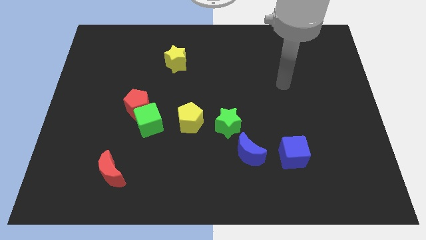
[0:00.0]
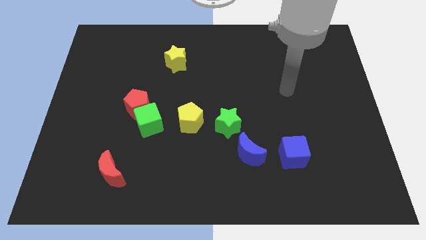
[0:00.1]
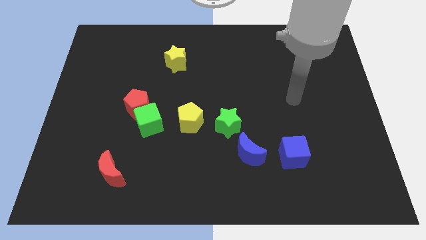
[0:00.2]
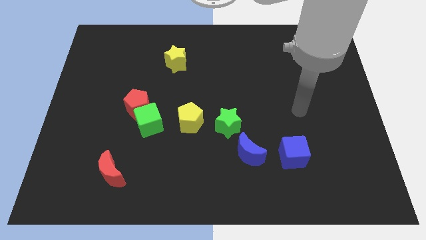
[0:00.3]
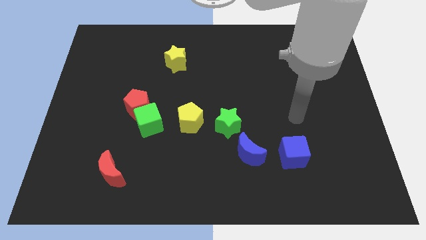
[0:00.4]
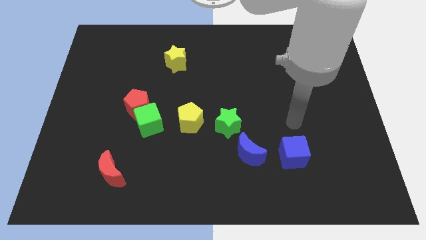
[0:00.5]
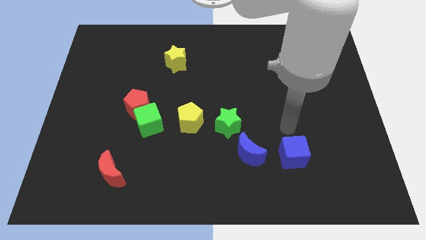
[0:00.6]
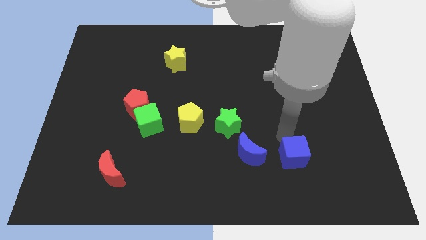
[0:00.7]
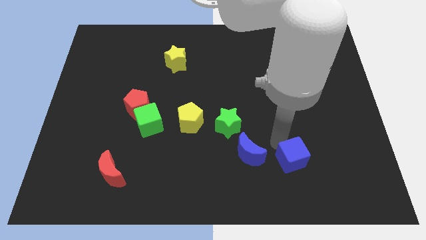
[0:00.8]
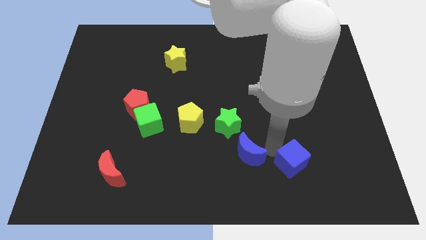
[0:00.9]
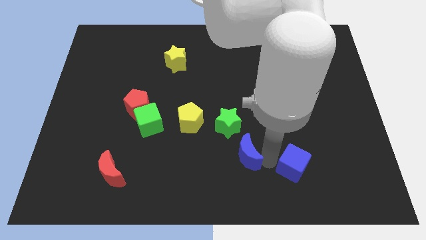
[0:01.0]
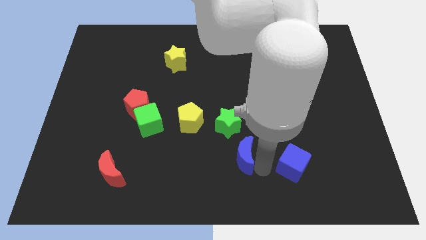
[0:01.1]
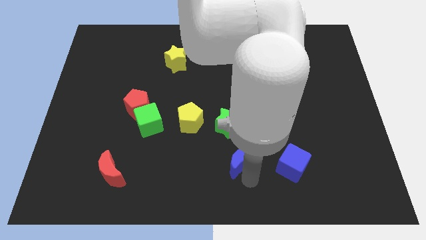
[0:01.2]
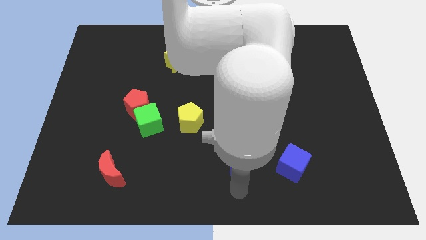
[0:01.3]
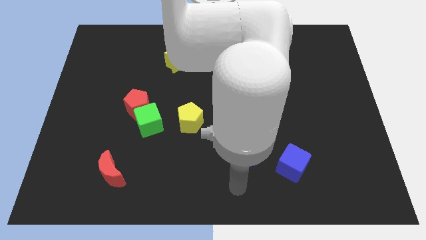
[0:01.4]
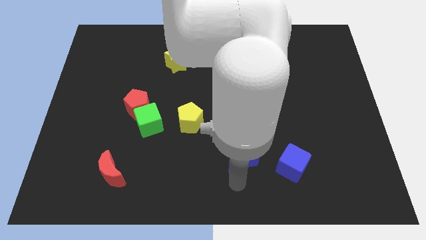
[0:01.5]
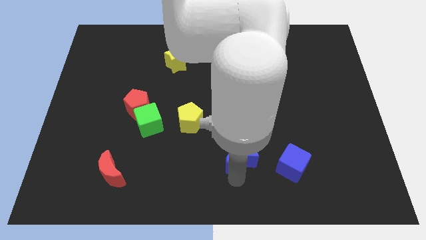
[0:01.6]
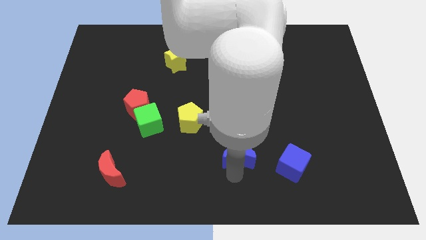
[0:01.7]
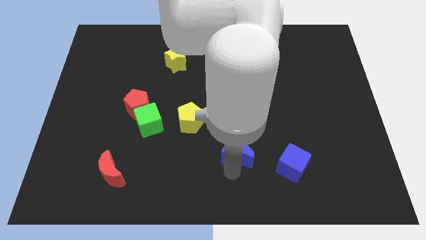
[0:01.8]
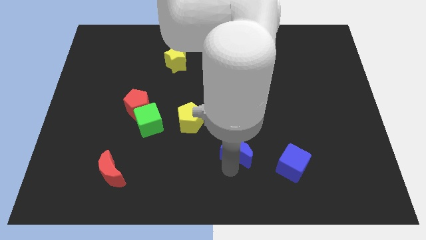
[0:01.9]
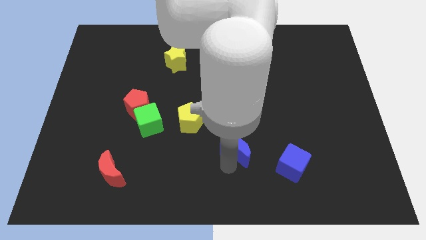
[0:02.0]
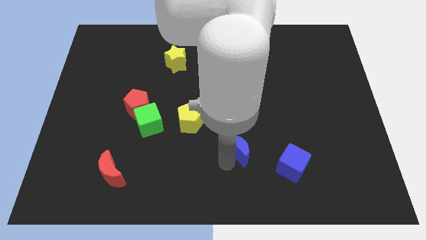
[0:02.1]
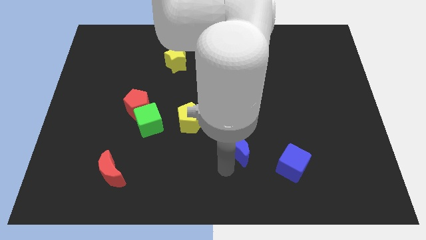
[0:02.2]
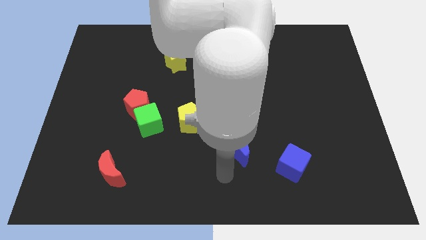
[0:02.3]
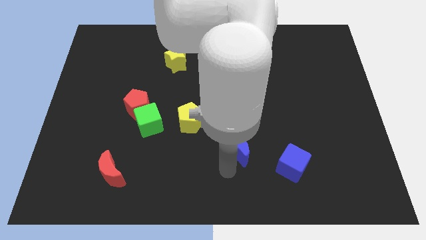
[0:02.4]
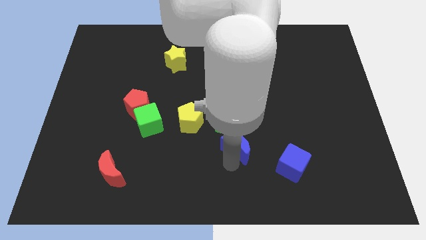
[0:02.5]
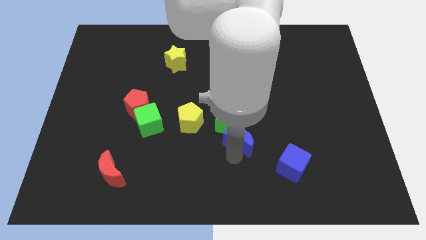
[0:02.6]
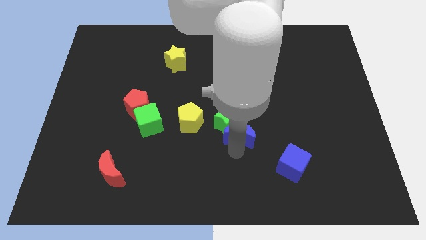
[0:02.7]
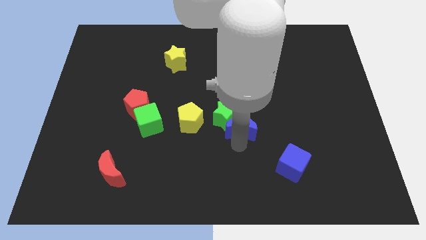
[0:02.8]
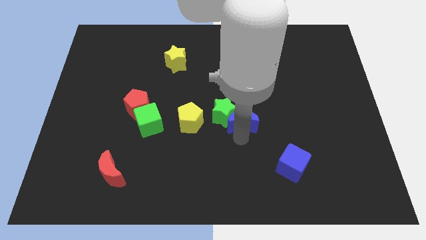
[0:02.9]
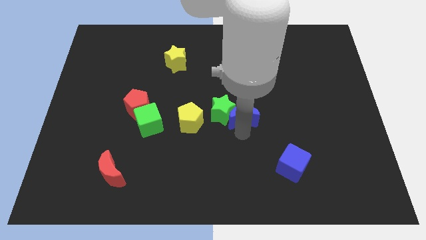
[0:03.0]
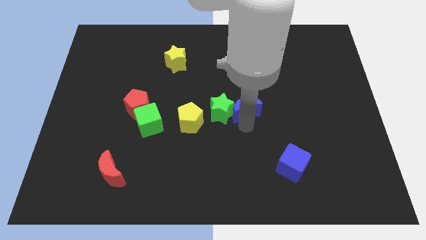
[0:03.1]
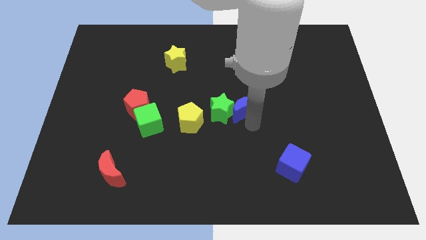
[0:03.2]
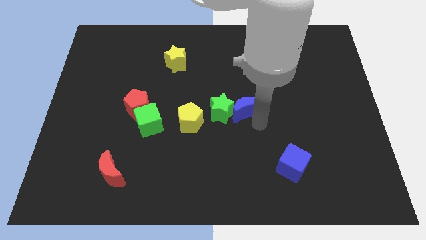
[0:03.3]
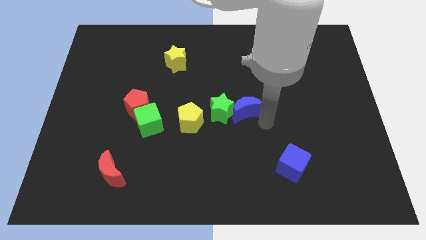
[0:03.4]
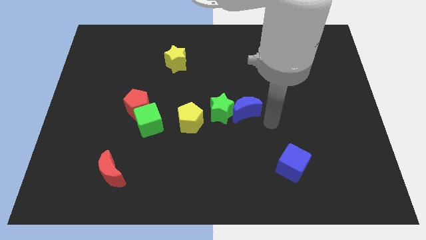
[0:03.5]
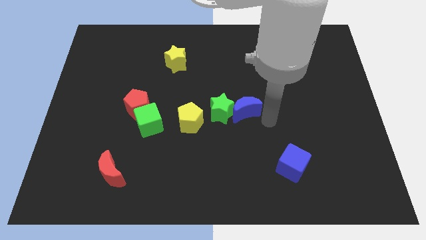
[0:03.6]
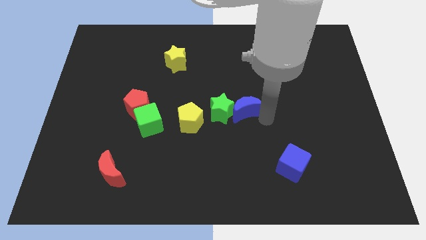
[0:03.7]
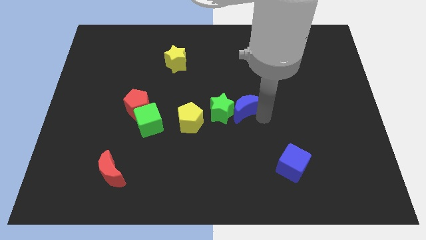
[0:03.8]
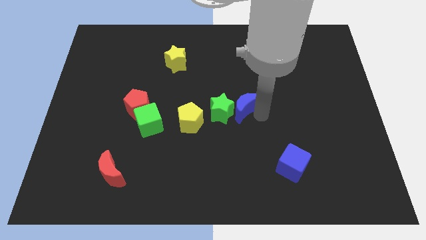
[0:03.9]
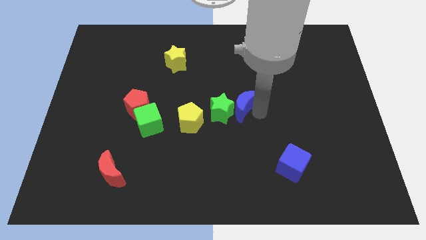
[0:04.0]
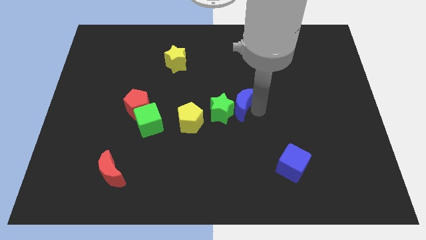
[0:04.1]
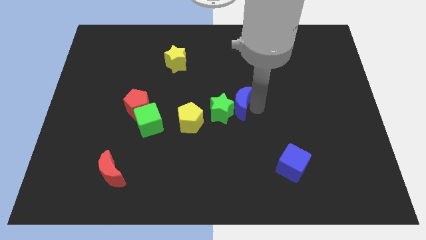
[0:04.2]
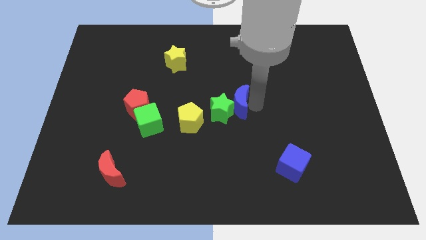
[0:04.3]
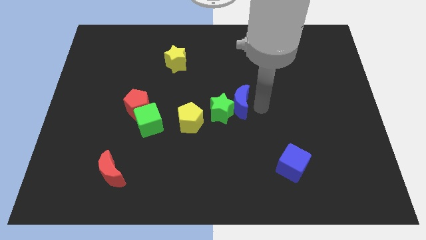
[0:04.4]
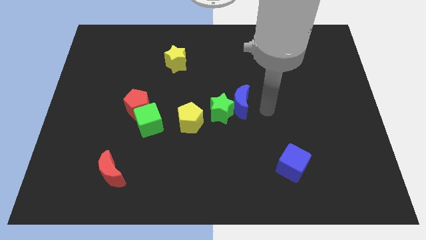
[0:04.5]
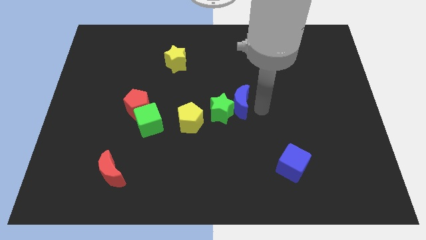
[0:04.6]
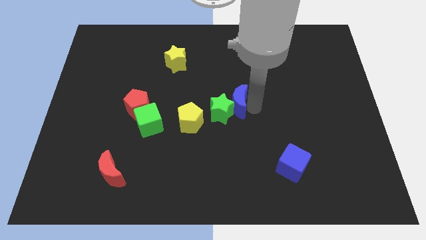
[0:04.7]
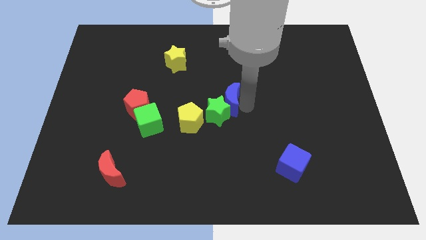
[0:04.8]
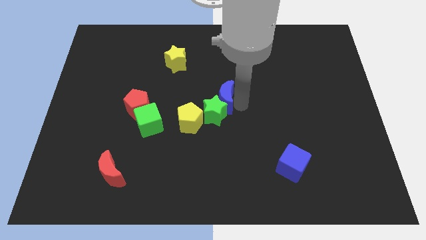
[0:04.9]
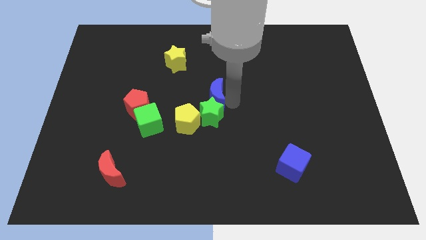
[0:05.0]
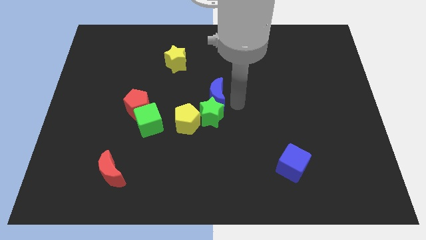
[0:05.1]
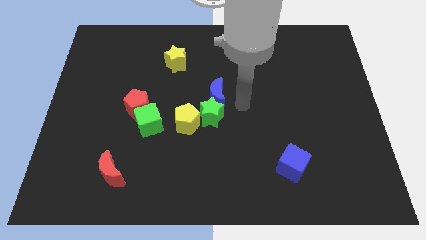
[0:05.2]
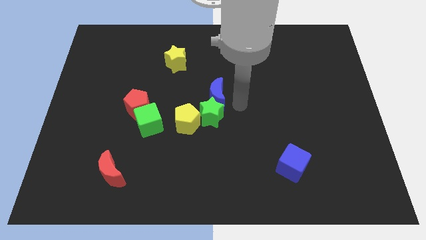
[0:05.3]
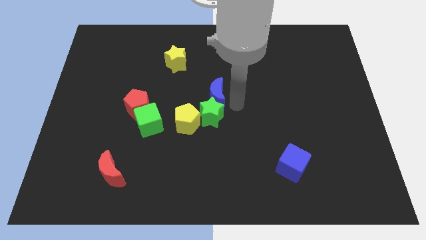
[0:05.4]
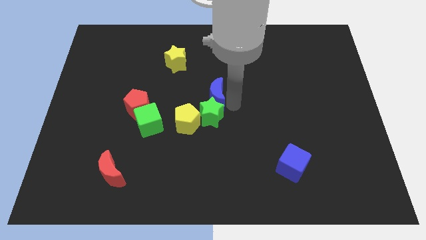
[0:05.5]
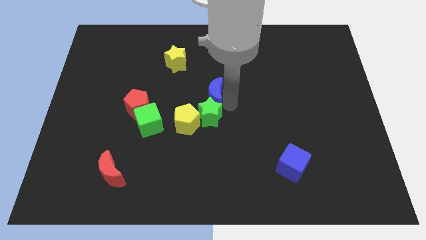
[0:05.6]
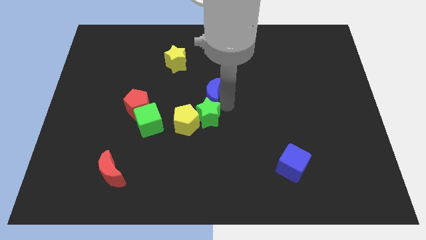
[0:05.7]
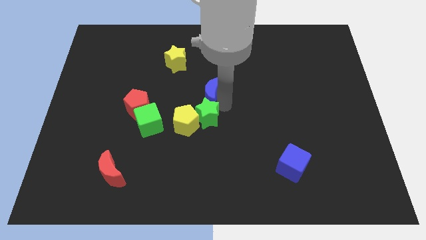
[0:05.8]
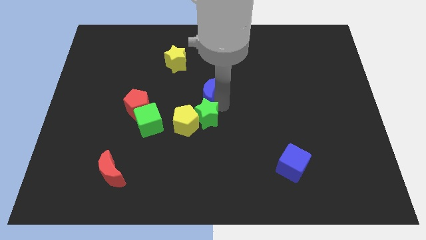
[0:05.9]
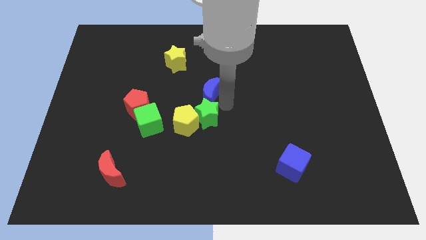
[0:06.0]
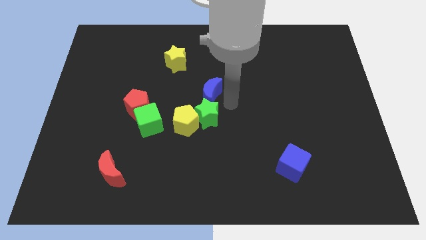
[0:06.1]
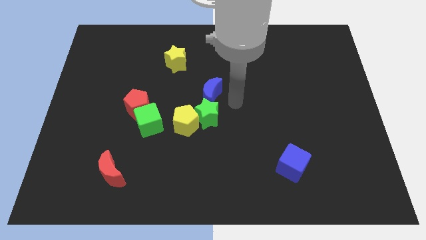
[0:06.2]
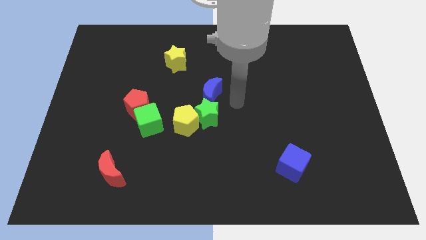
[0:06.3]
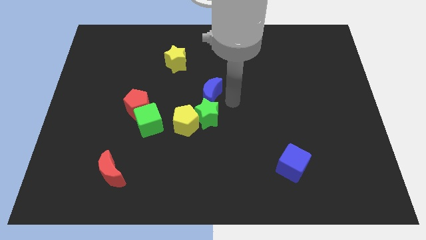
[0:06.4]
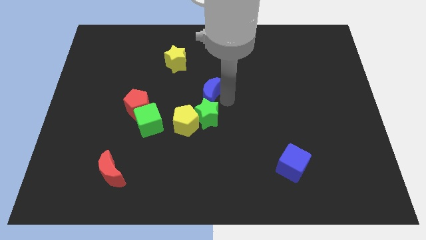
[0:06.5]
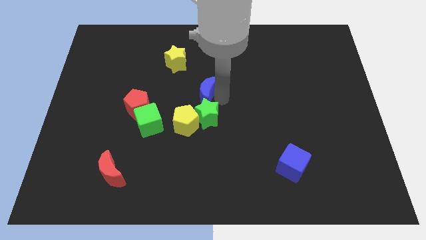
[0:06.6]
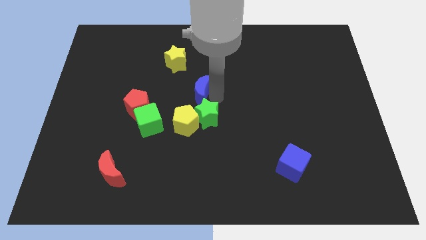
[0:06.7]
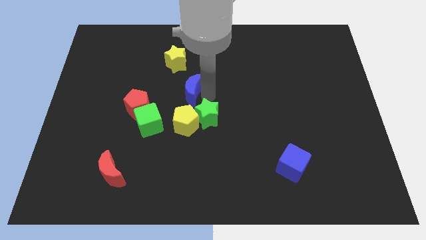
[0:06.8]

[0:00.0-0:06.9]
move the blue moon up and left

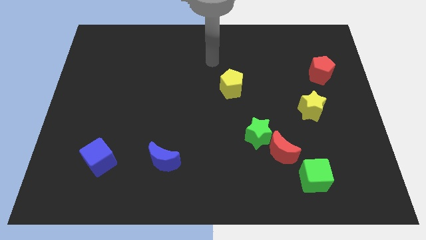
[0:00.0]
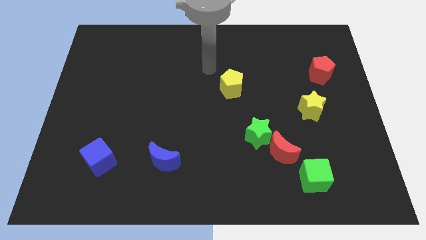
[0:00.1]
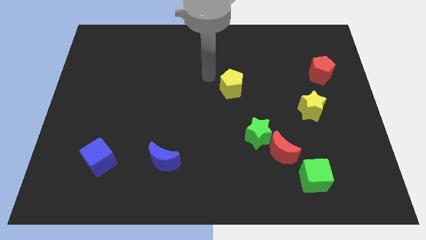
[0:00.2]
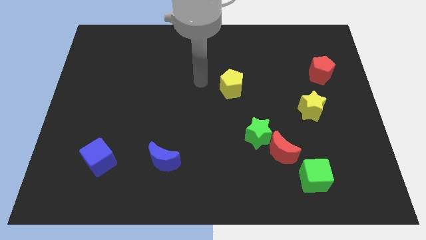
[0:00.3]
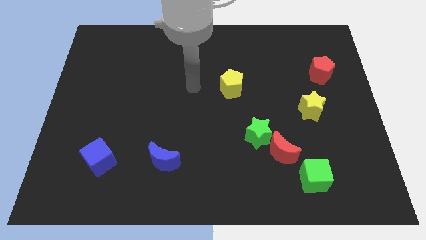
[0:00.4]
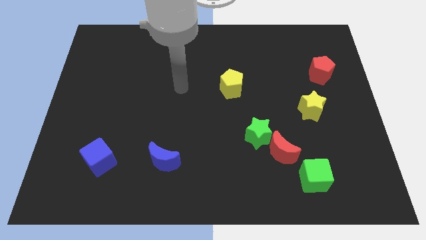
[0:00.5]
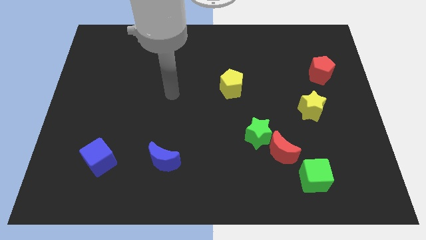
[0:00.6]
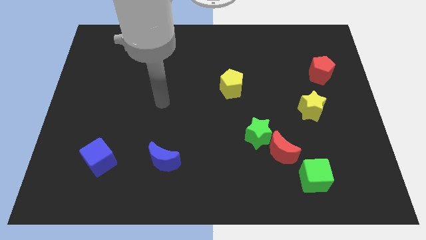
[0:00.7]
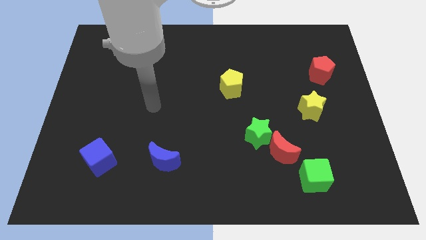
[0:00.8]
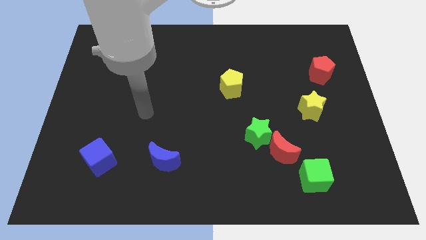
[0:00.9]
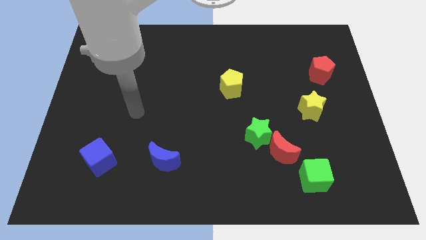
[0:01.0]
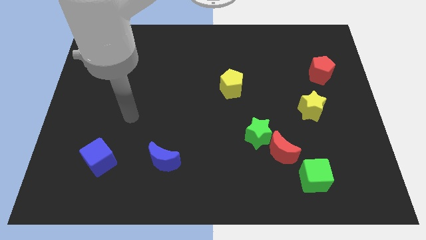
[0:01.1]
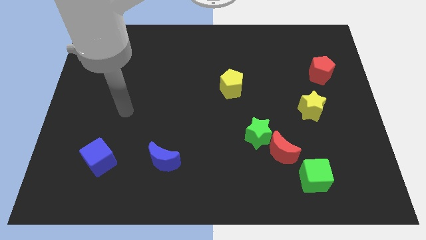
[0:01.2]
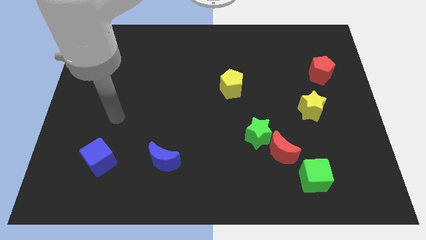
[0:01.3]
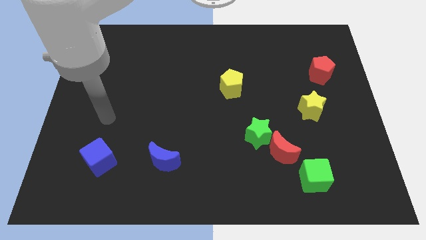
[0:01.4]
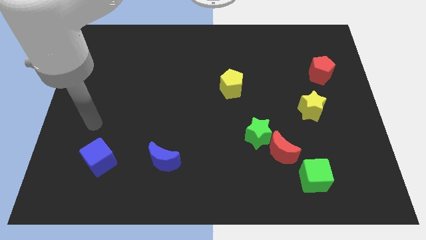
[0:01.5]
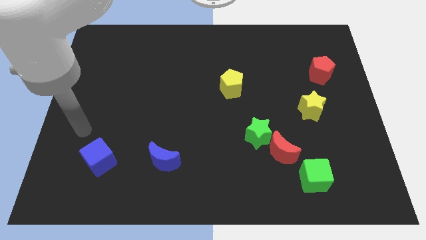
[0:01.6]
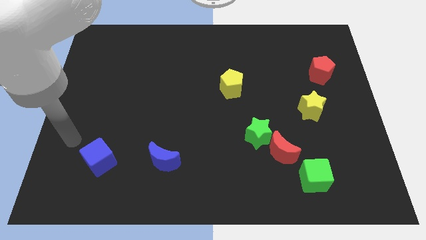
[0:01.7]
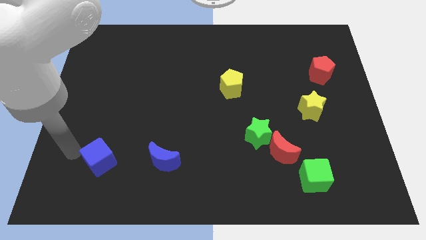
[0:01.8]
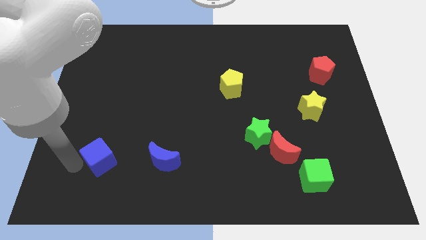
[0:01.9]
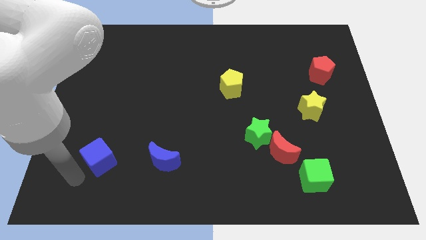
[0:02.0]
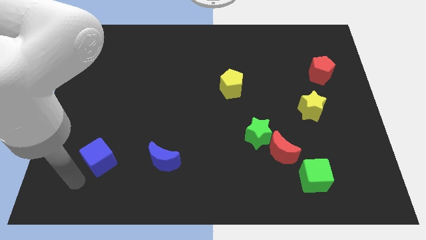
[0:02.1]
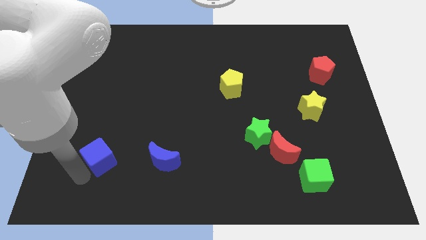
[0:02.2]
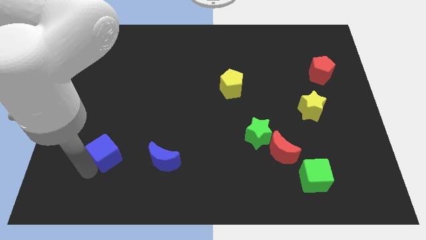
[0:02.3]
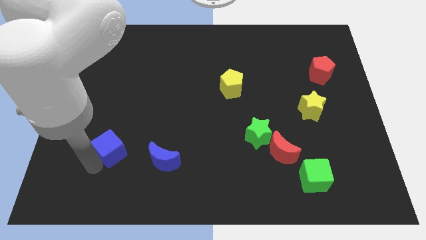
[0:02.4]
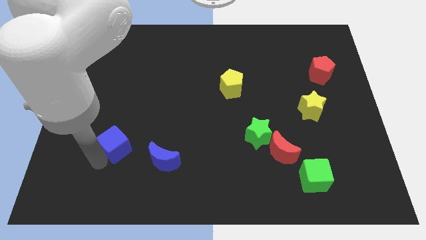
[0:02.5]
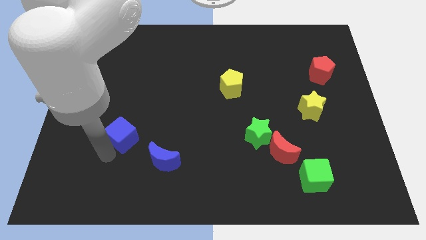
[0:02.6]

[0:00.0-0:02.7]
slide the blue cube diagonally upwards and right somewhat
